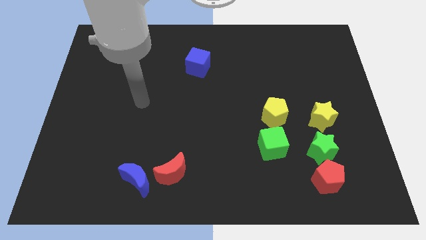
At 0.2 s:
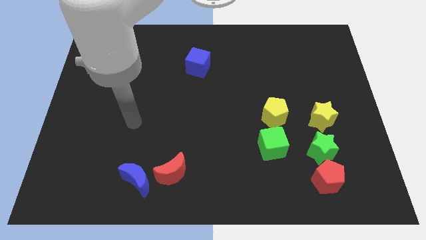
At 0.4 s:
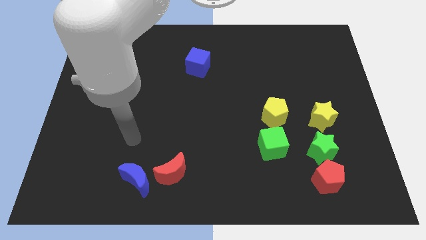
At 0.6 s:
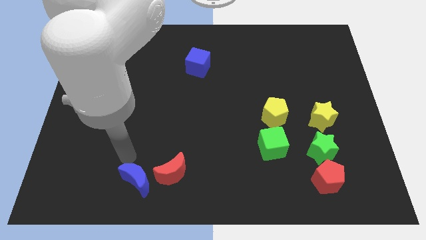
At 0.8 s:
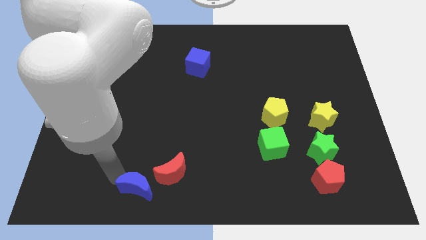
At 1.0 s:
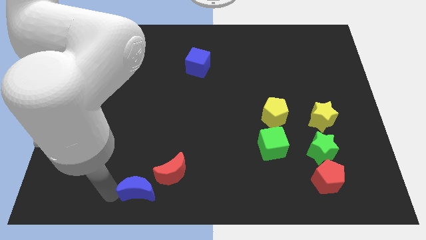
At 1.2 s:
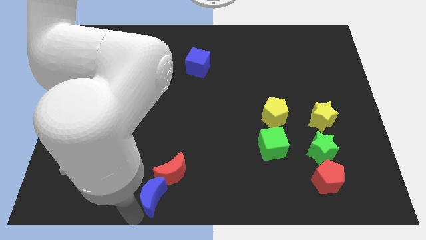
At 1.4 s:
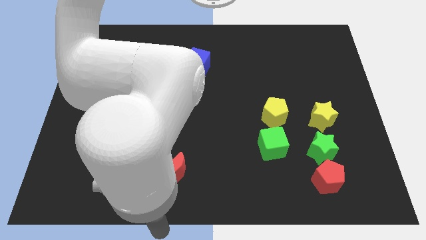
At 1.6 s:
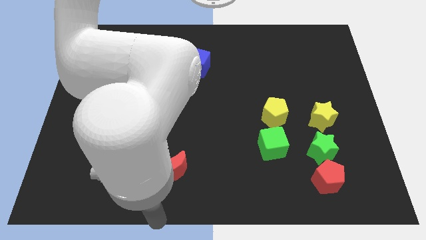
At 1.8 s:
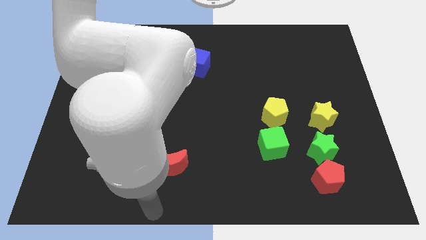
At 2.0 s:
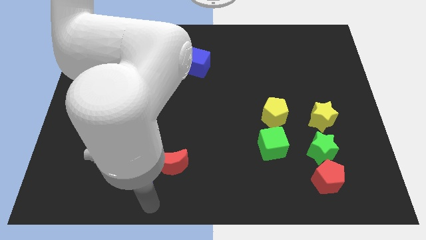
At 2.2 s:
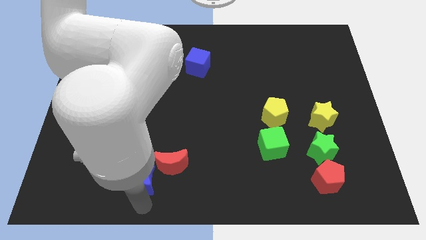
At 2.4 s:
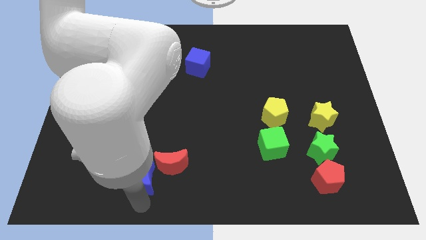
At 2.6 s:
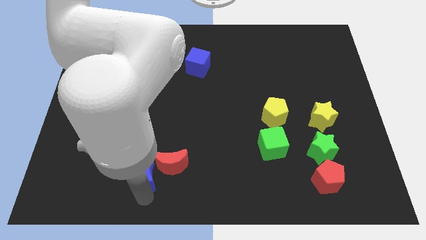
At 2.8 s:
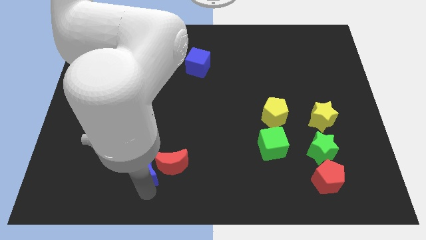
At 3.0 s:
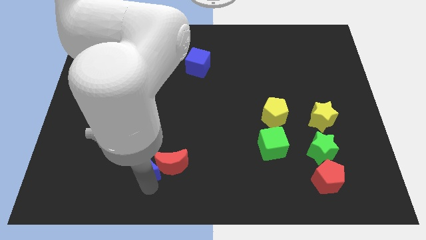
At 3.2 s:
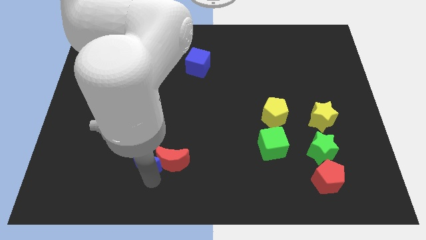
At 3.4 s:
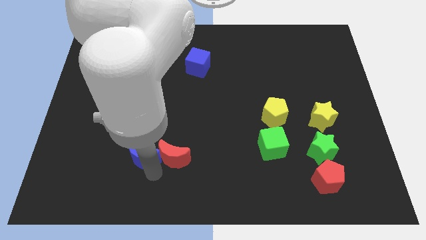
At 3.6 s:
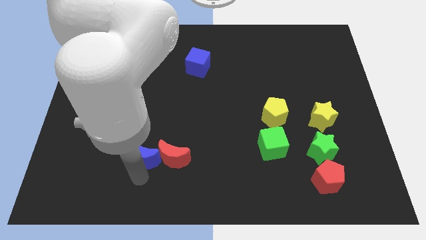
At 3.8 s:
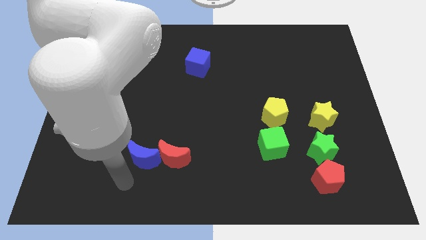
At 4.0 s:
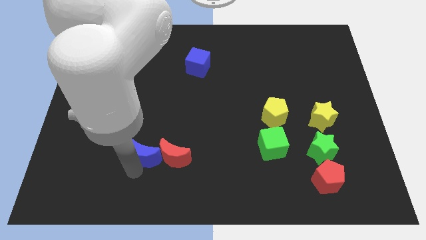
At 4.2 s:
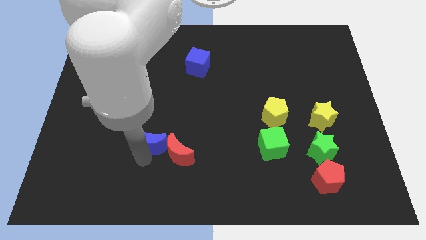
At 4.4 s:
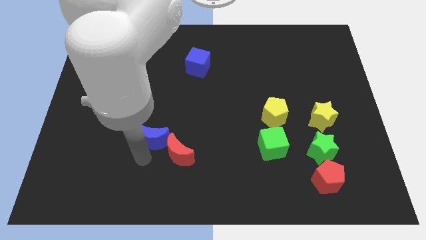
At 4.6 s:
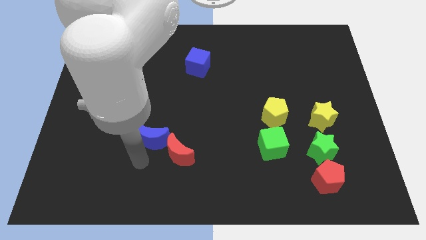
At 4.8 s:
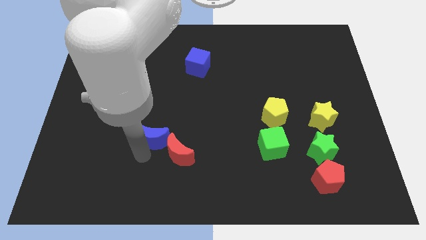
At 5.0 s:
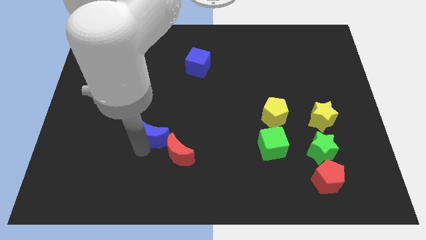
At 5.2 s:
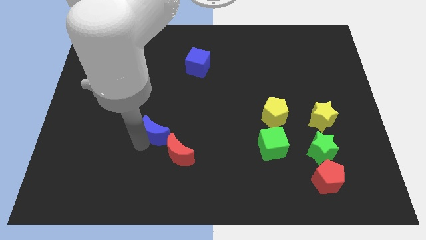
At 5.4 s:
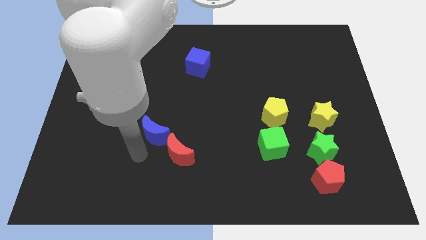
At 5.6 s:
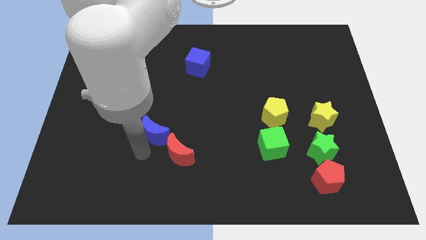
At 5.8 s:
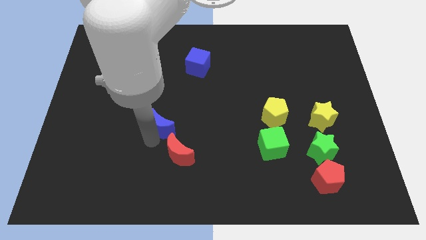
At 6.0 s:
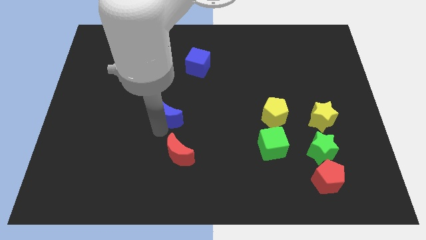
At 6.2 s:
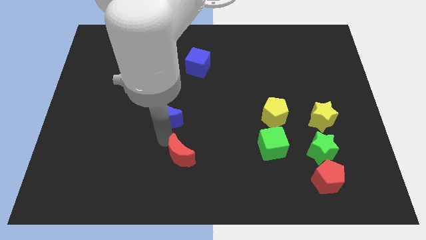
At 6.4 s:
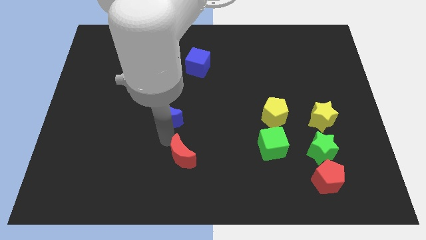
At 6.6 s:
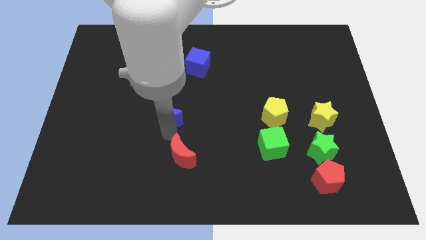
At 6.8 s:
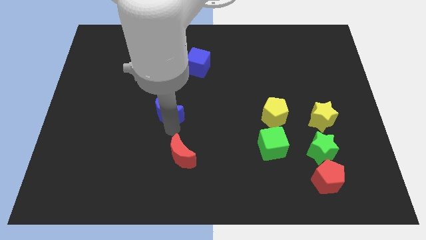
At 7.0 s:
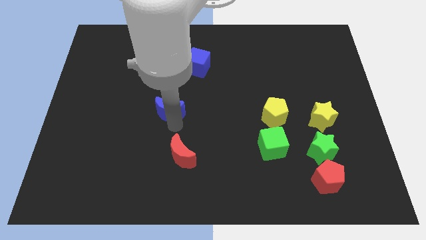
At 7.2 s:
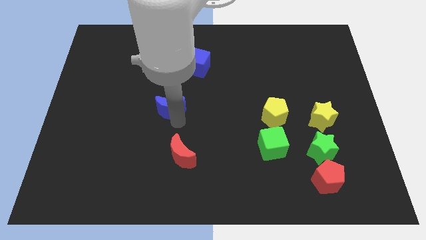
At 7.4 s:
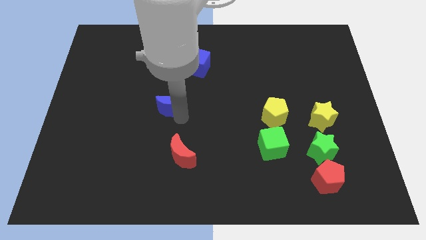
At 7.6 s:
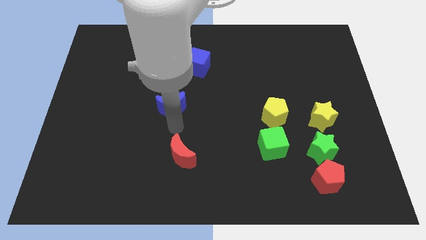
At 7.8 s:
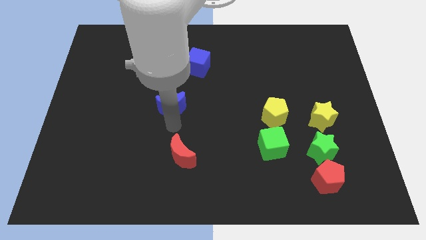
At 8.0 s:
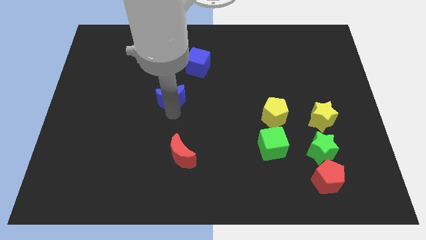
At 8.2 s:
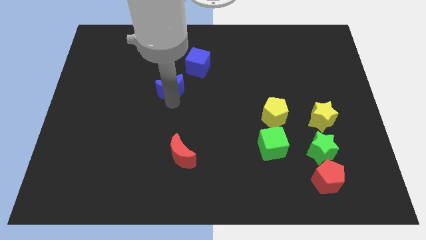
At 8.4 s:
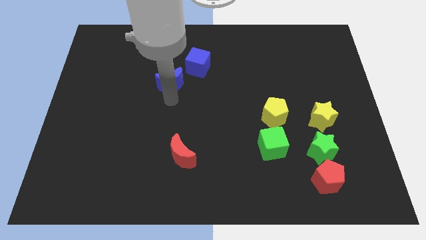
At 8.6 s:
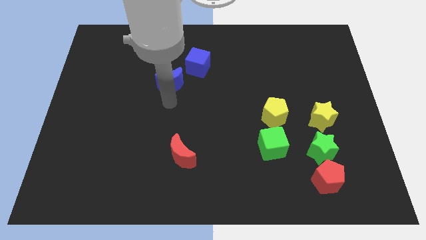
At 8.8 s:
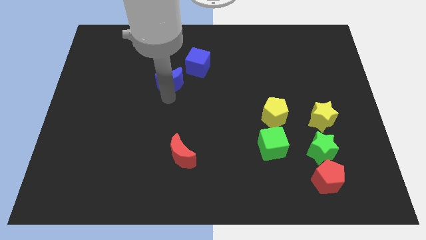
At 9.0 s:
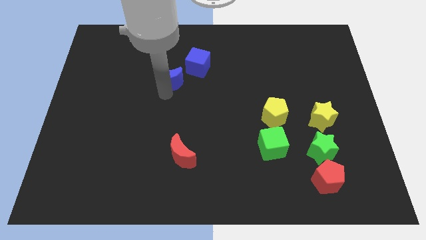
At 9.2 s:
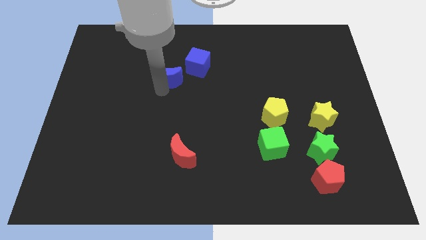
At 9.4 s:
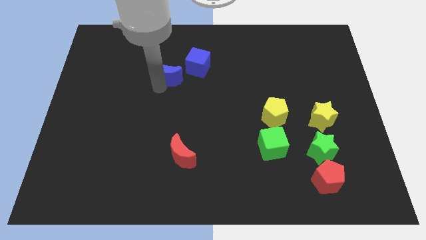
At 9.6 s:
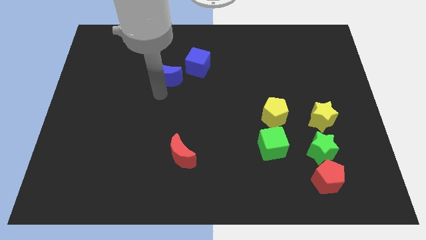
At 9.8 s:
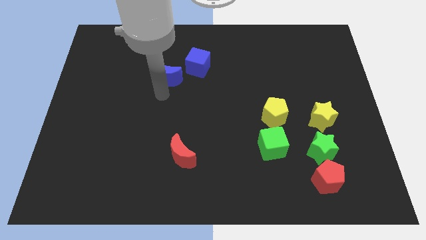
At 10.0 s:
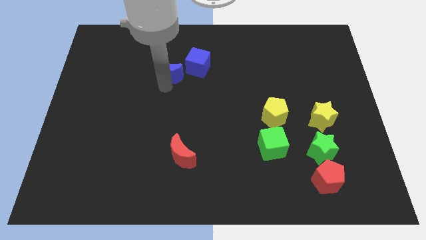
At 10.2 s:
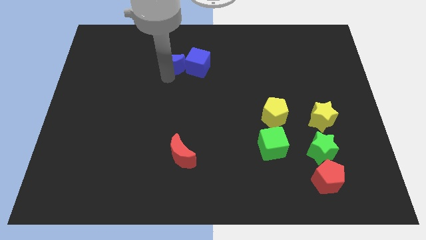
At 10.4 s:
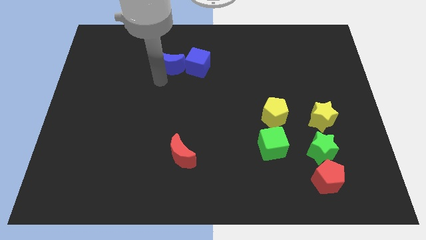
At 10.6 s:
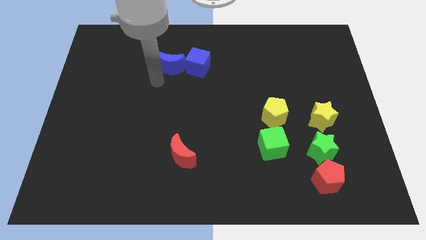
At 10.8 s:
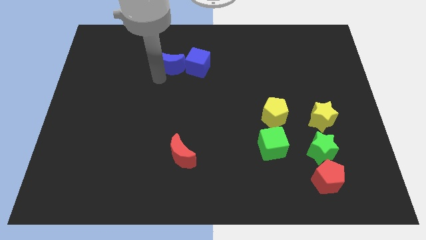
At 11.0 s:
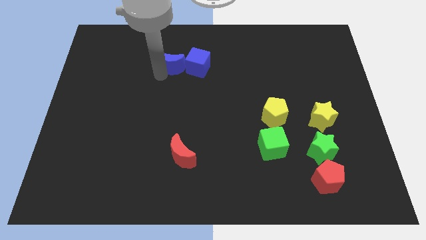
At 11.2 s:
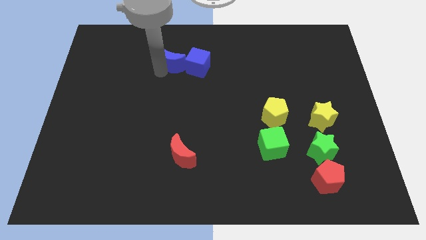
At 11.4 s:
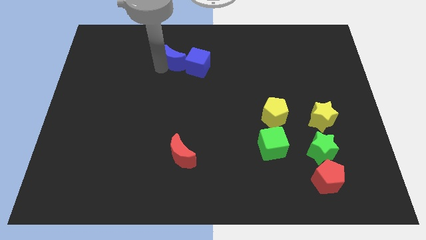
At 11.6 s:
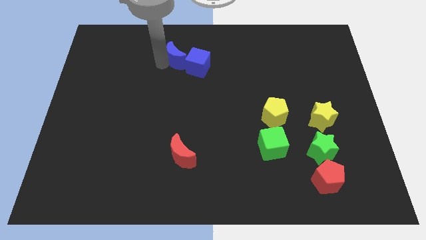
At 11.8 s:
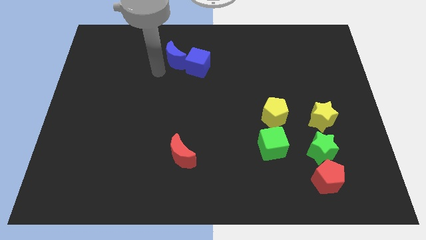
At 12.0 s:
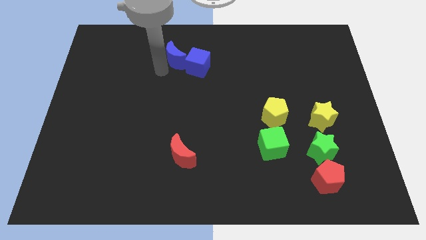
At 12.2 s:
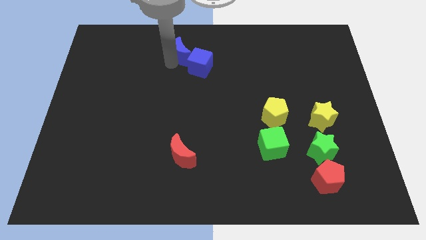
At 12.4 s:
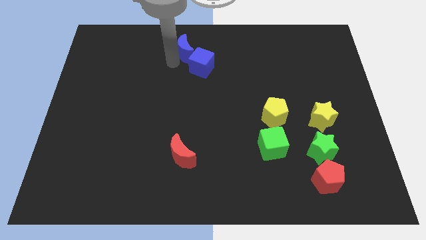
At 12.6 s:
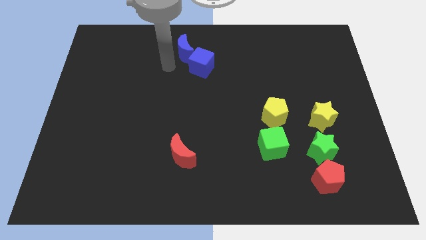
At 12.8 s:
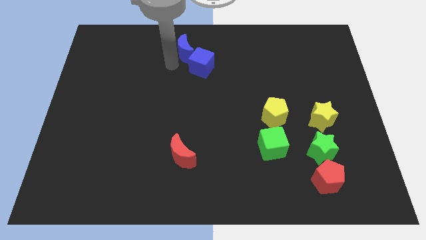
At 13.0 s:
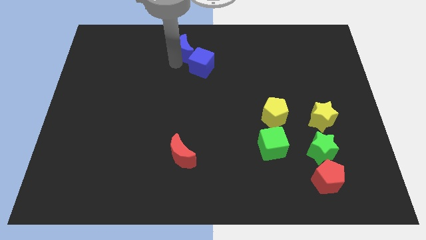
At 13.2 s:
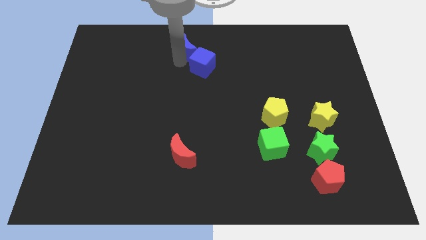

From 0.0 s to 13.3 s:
push the blue moon to the top

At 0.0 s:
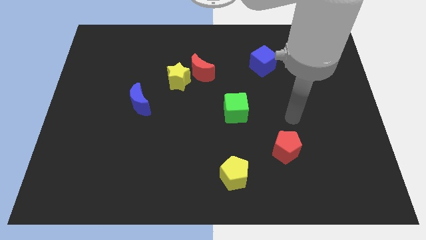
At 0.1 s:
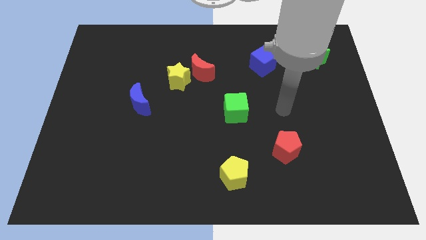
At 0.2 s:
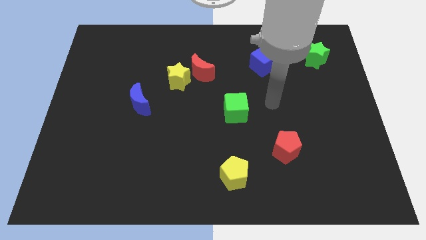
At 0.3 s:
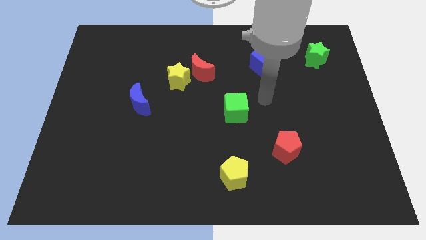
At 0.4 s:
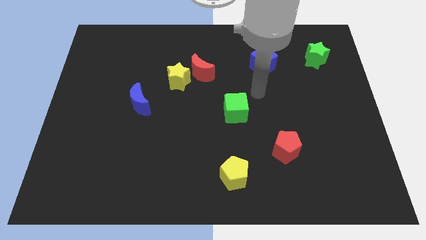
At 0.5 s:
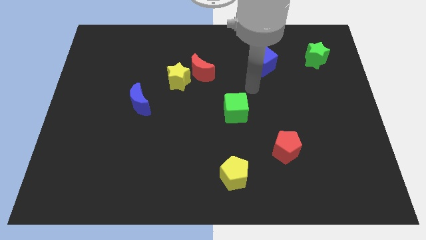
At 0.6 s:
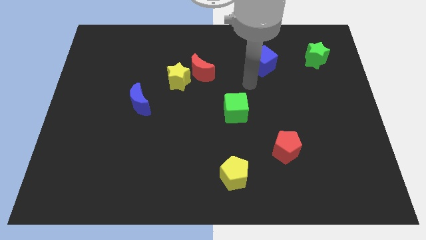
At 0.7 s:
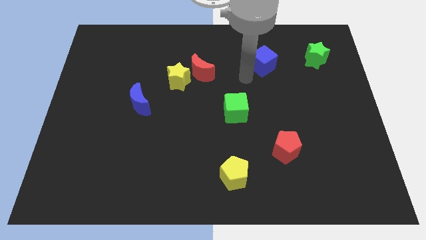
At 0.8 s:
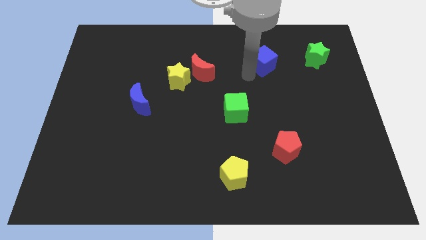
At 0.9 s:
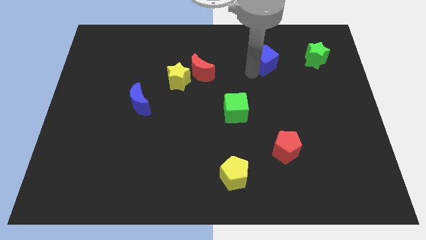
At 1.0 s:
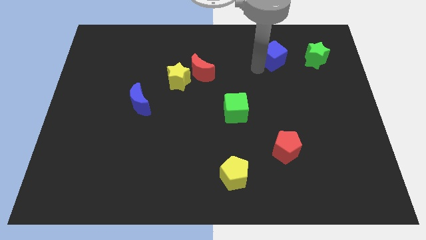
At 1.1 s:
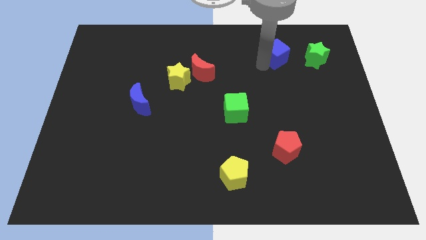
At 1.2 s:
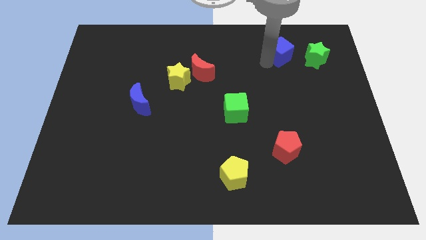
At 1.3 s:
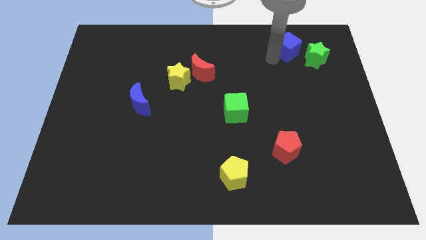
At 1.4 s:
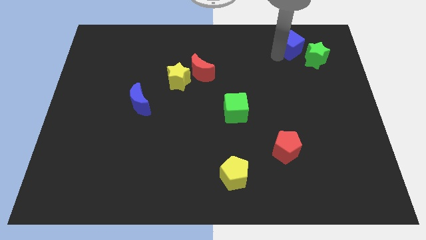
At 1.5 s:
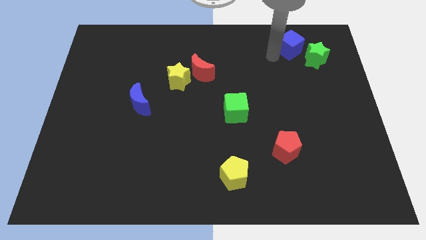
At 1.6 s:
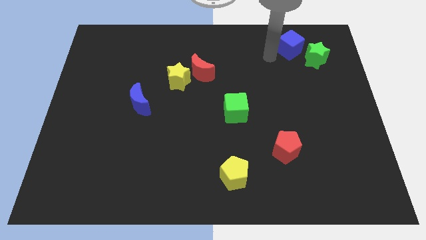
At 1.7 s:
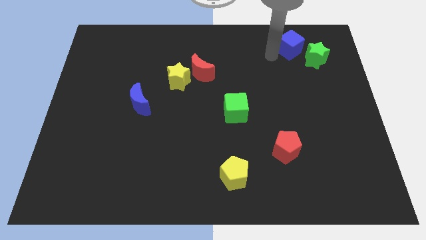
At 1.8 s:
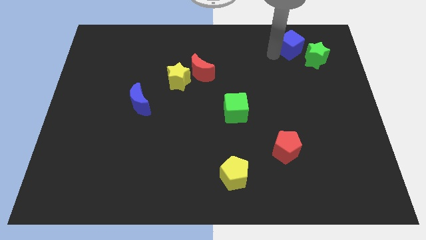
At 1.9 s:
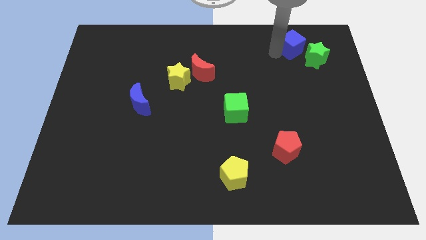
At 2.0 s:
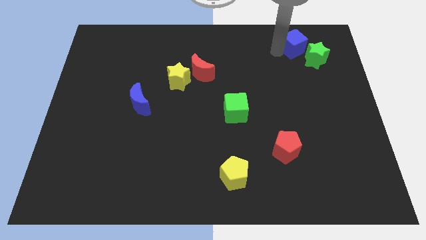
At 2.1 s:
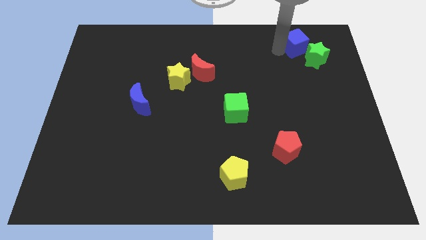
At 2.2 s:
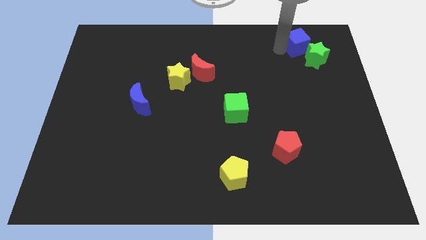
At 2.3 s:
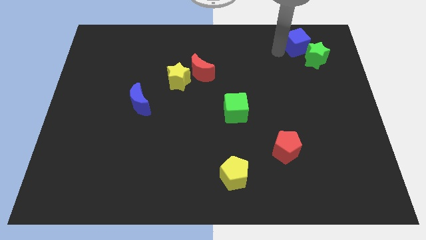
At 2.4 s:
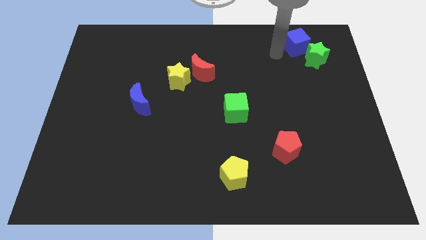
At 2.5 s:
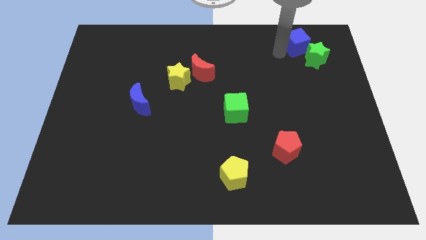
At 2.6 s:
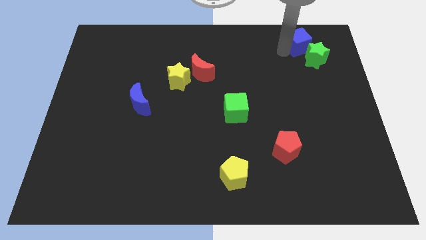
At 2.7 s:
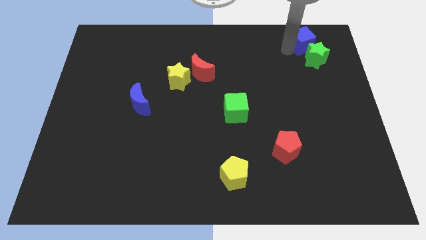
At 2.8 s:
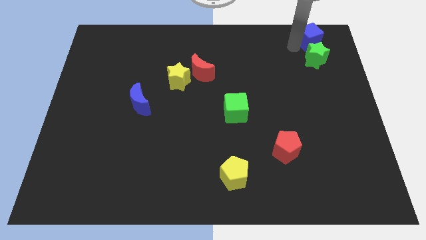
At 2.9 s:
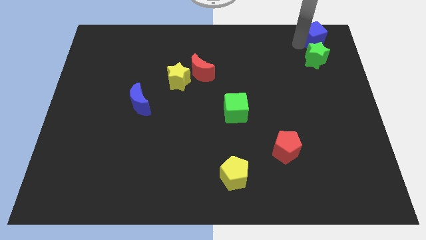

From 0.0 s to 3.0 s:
slide the blue cube to the top right
